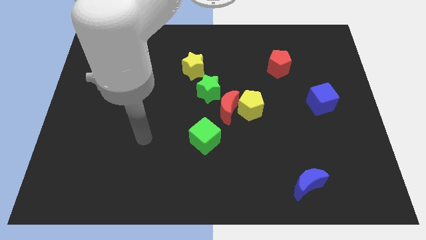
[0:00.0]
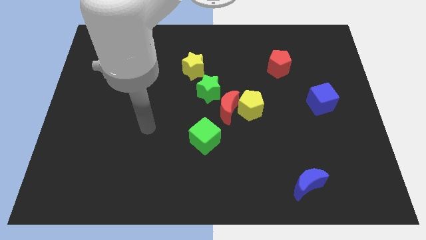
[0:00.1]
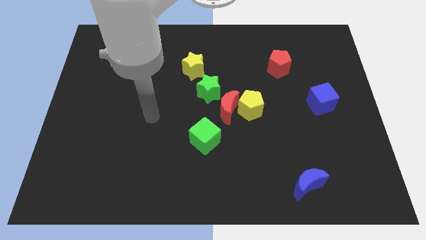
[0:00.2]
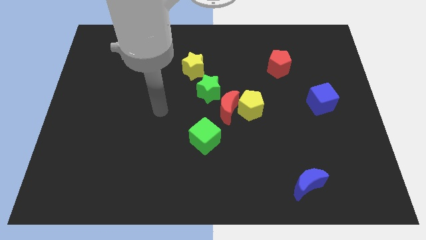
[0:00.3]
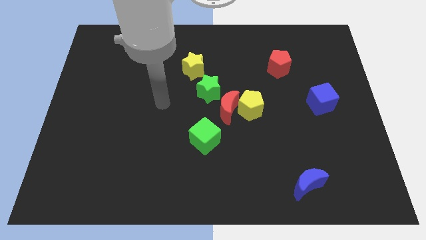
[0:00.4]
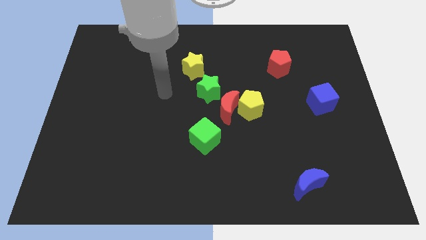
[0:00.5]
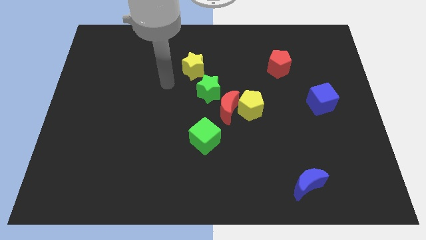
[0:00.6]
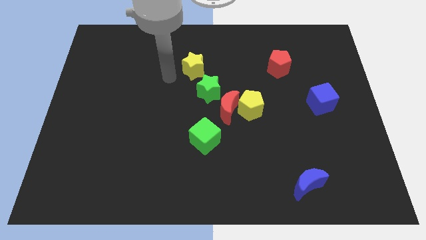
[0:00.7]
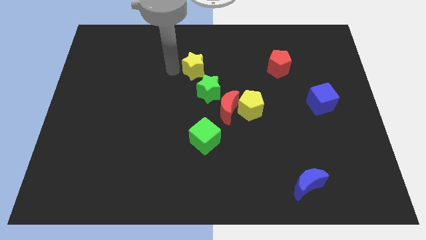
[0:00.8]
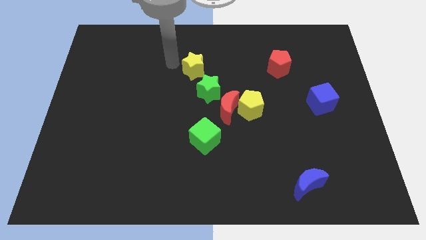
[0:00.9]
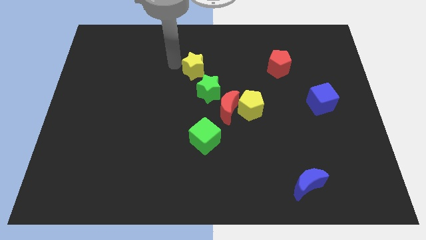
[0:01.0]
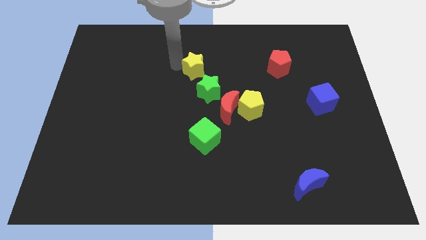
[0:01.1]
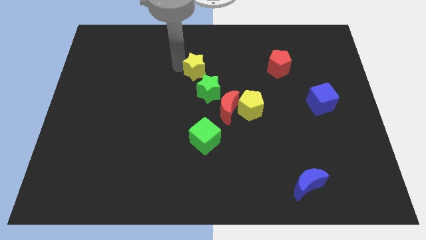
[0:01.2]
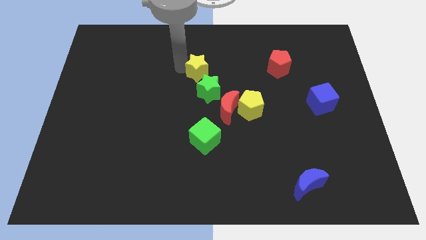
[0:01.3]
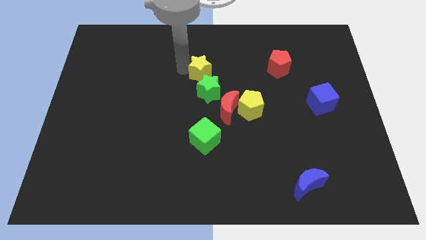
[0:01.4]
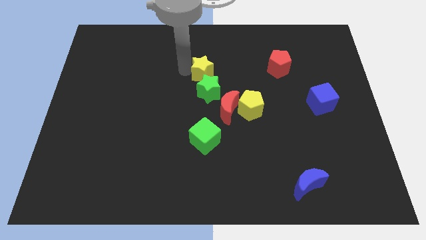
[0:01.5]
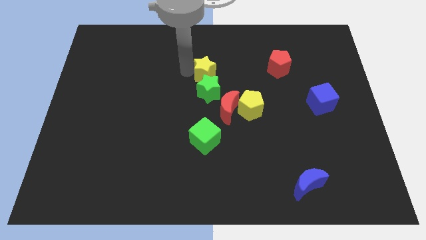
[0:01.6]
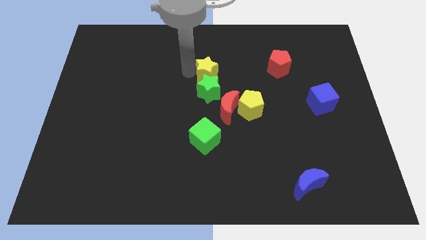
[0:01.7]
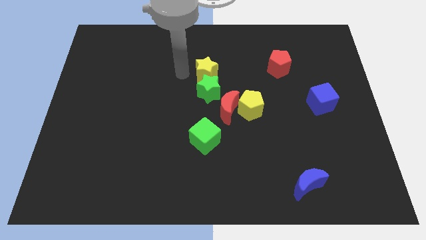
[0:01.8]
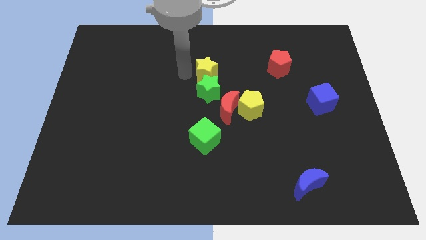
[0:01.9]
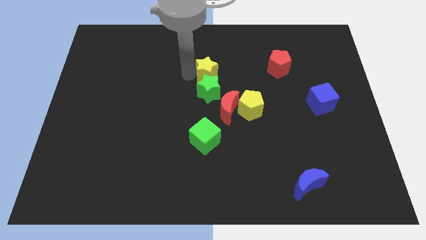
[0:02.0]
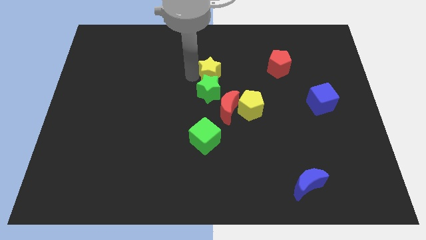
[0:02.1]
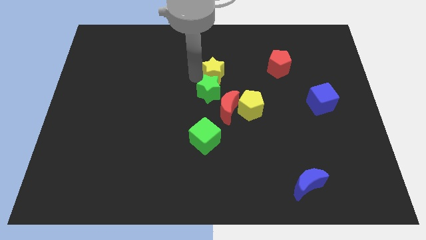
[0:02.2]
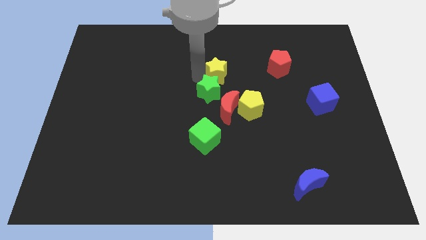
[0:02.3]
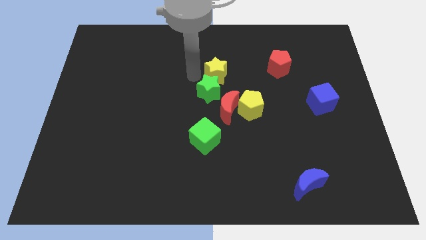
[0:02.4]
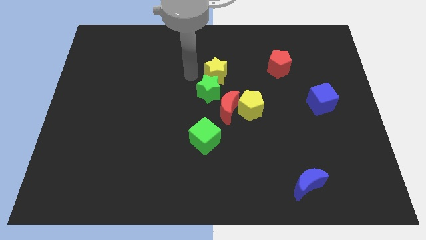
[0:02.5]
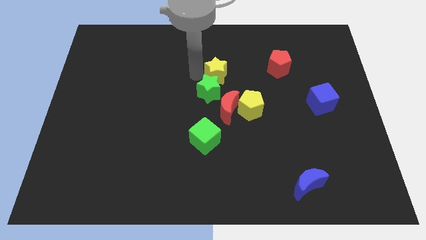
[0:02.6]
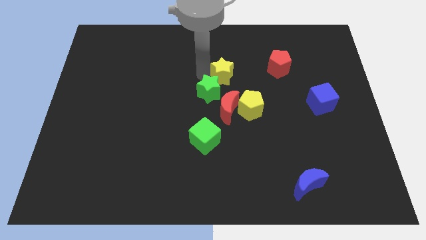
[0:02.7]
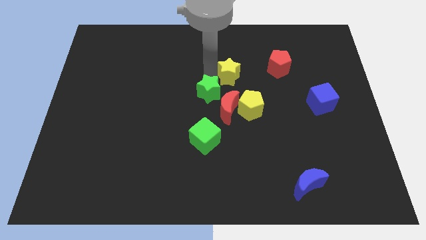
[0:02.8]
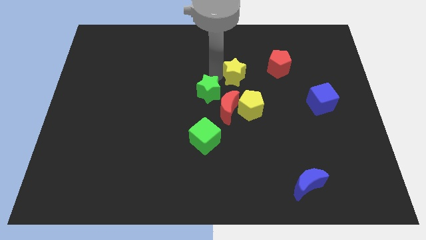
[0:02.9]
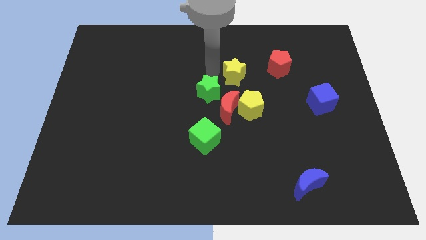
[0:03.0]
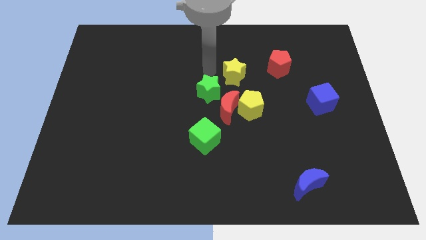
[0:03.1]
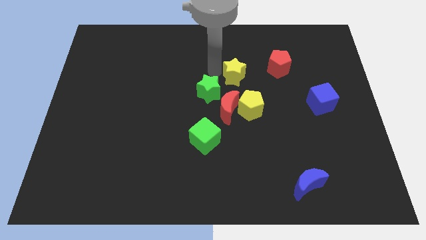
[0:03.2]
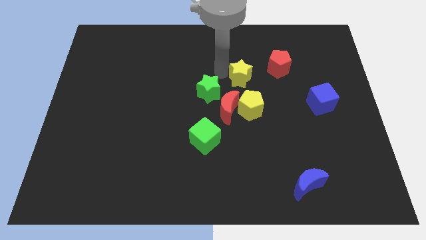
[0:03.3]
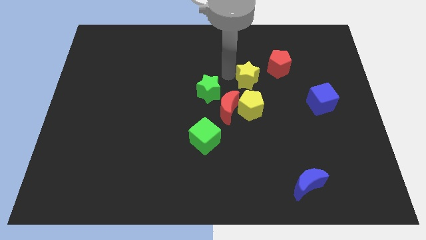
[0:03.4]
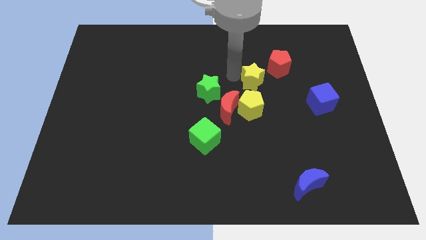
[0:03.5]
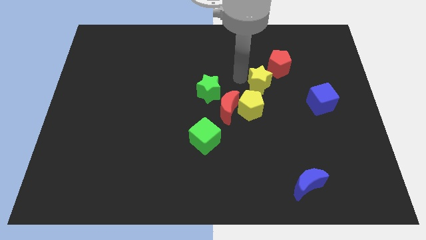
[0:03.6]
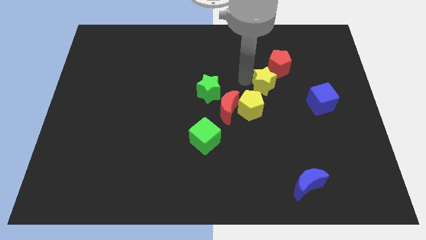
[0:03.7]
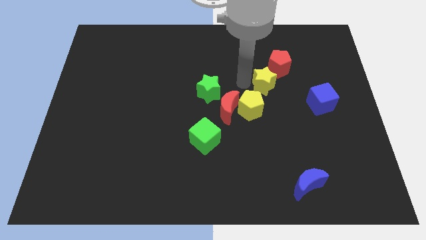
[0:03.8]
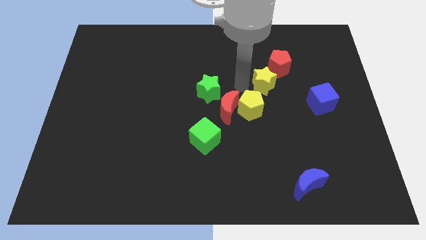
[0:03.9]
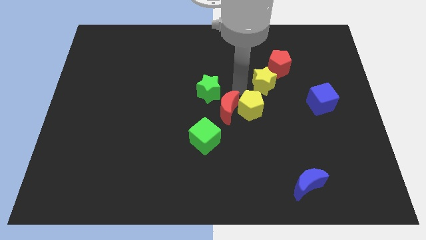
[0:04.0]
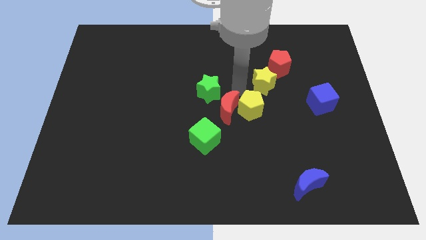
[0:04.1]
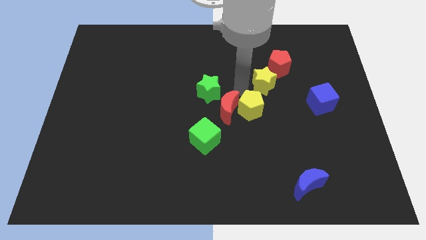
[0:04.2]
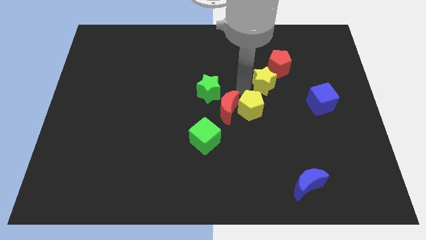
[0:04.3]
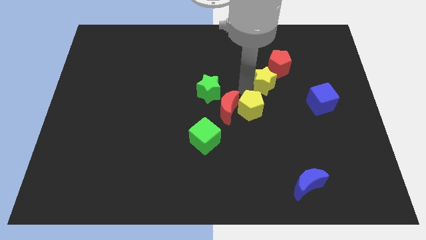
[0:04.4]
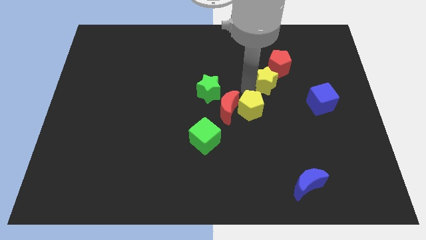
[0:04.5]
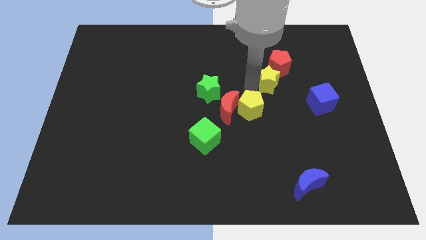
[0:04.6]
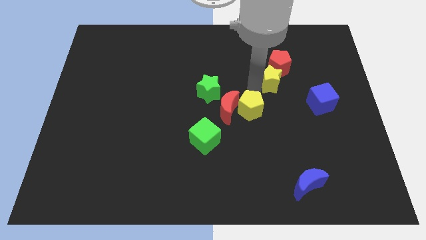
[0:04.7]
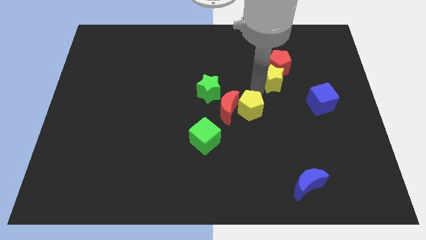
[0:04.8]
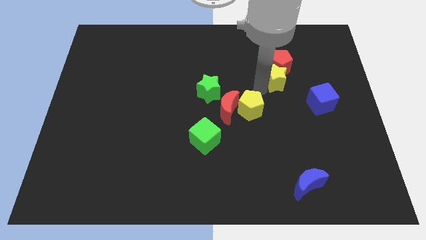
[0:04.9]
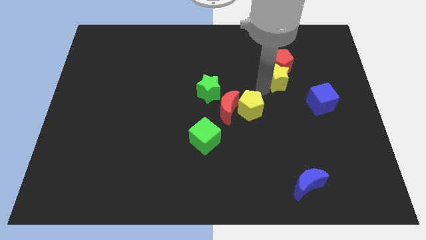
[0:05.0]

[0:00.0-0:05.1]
push the yellow star to the right

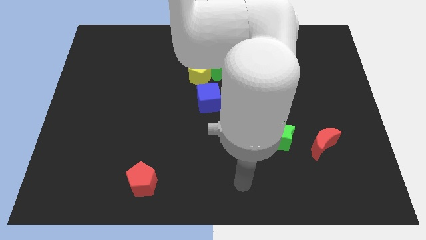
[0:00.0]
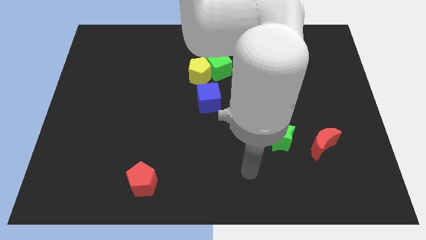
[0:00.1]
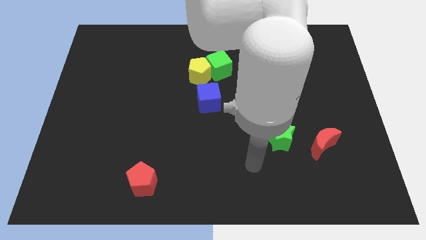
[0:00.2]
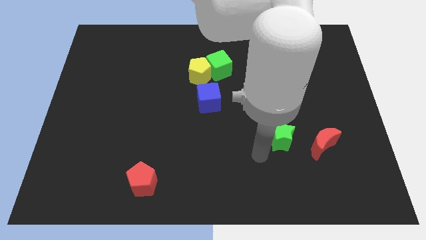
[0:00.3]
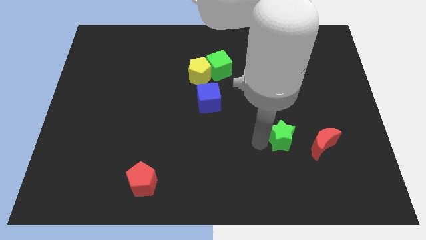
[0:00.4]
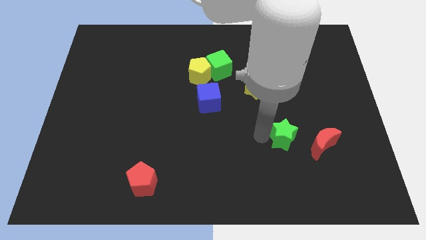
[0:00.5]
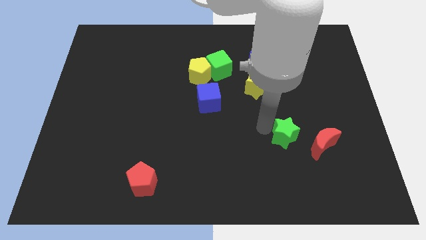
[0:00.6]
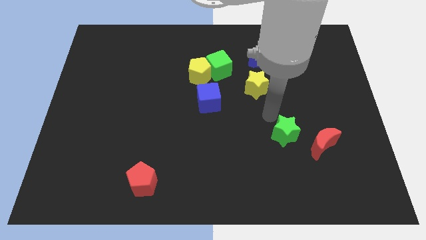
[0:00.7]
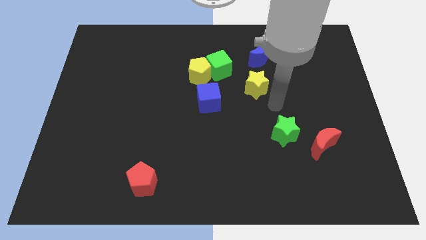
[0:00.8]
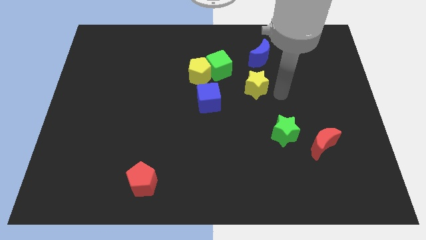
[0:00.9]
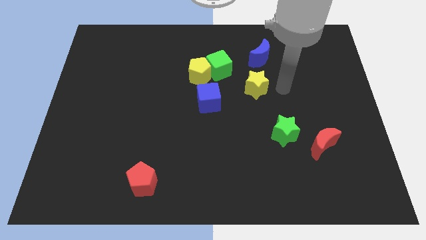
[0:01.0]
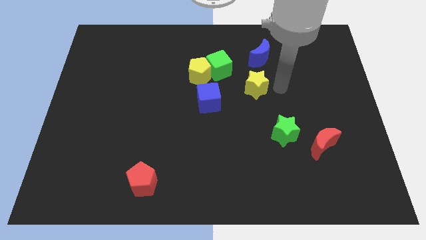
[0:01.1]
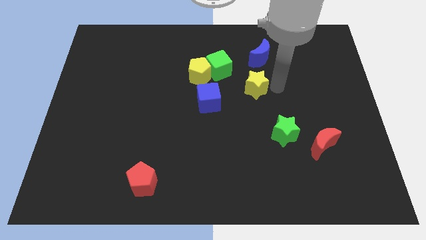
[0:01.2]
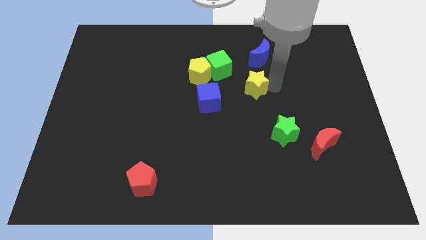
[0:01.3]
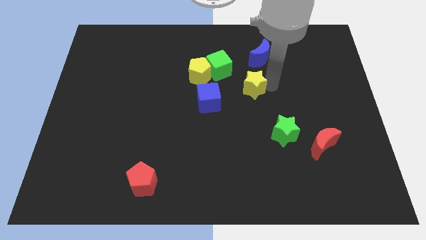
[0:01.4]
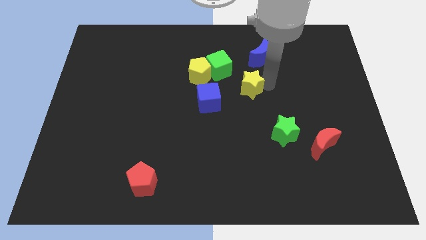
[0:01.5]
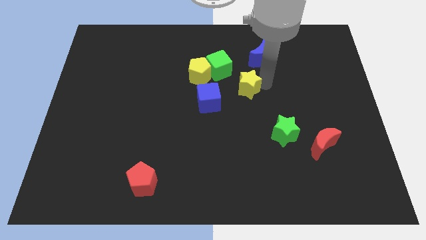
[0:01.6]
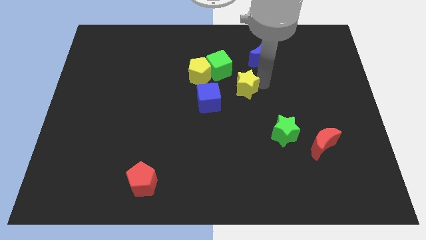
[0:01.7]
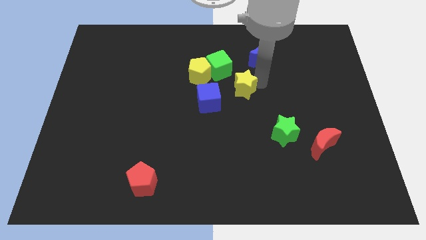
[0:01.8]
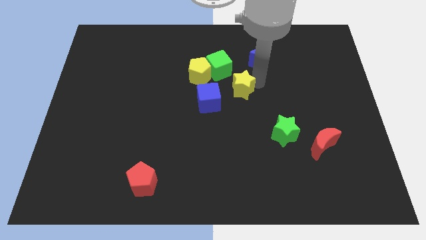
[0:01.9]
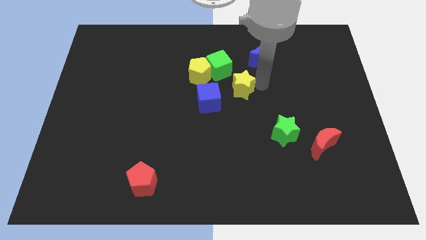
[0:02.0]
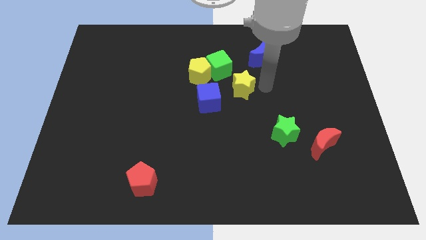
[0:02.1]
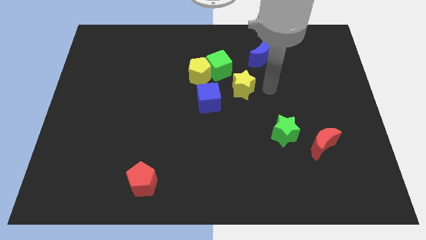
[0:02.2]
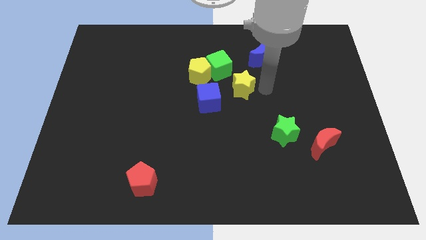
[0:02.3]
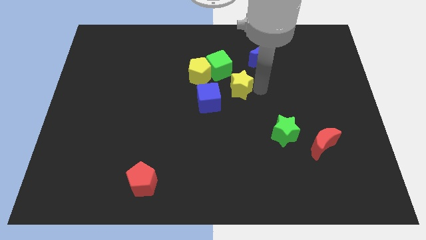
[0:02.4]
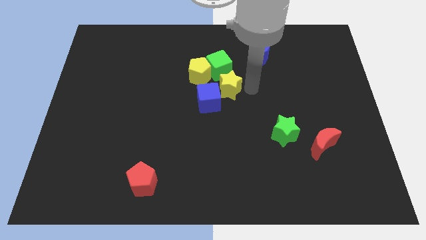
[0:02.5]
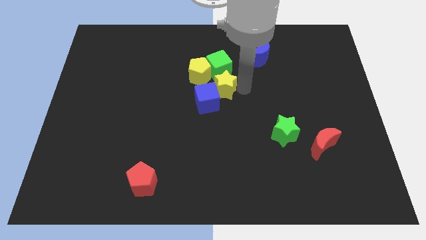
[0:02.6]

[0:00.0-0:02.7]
slightly push the yellow star left

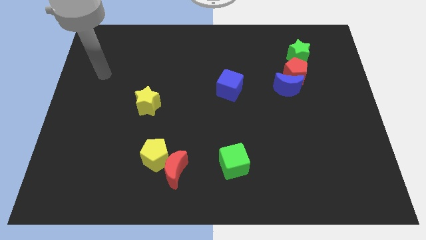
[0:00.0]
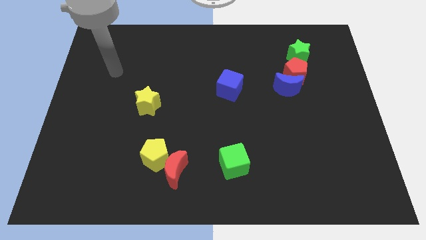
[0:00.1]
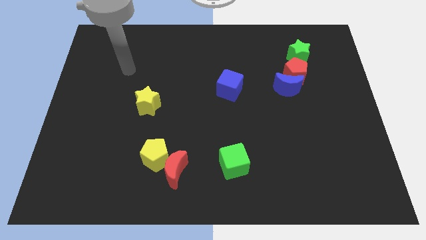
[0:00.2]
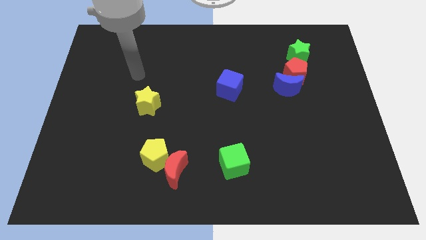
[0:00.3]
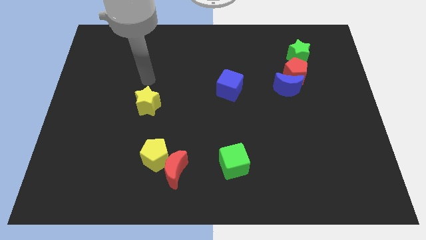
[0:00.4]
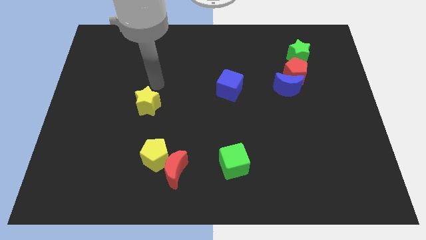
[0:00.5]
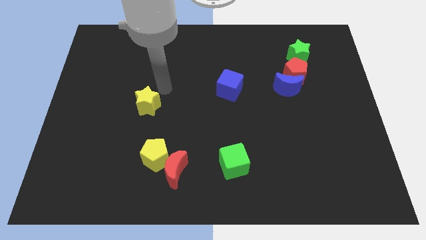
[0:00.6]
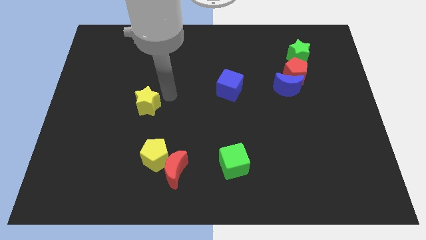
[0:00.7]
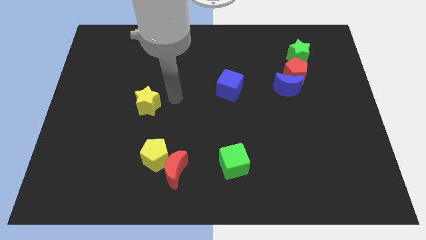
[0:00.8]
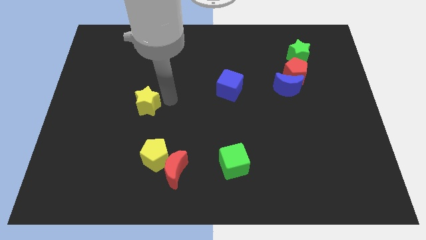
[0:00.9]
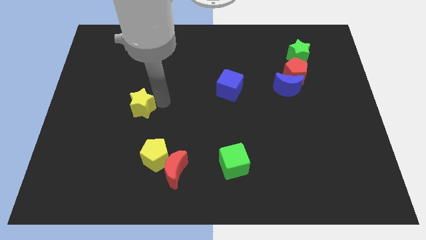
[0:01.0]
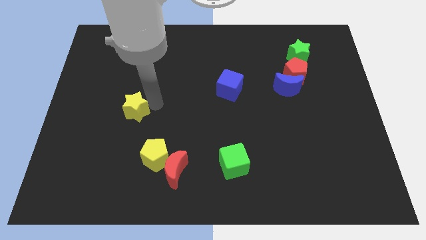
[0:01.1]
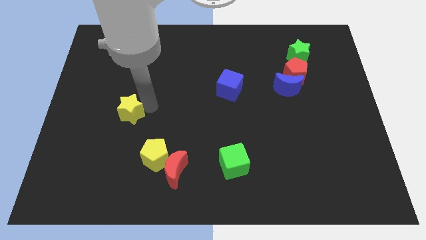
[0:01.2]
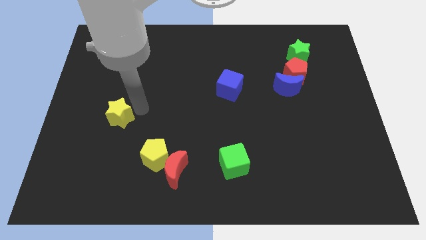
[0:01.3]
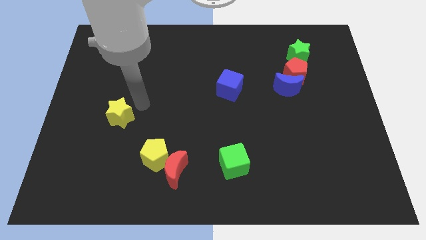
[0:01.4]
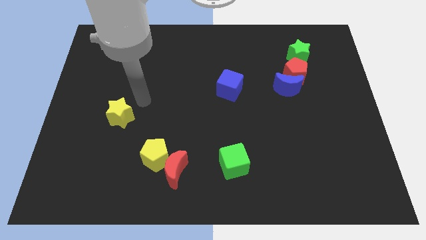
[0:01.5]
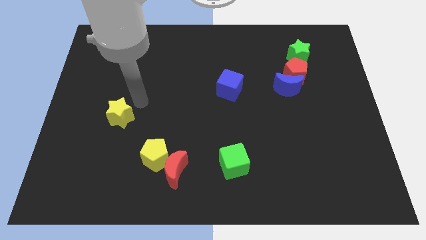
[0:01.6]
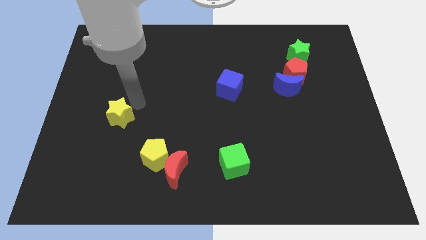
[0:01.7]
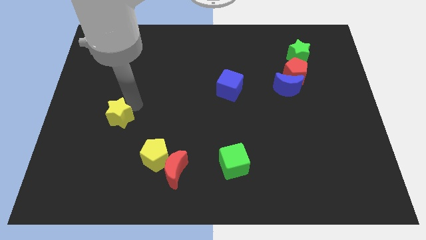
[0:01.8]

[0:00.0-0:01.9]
slide the yellow star down and to the left diagonally a bit
